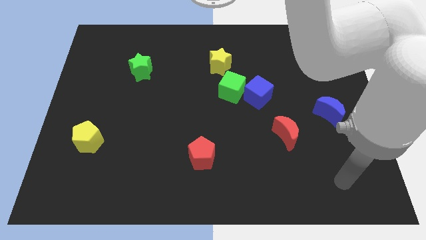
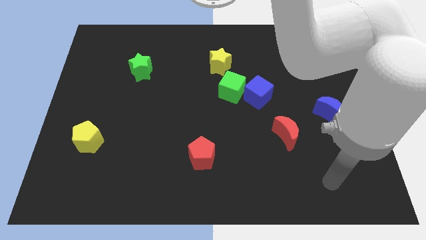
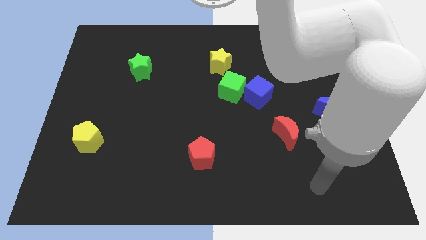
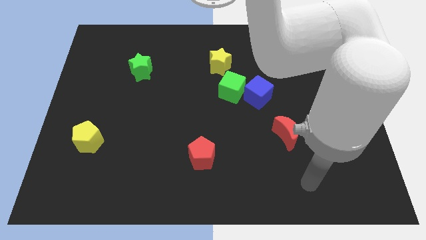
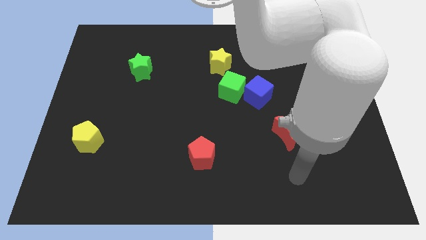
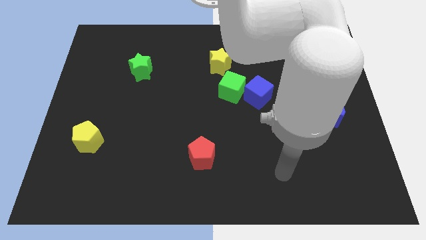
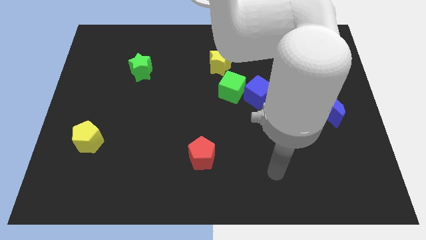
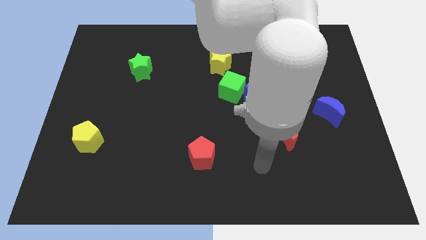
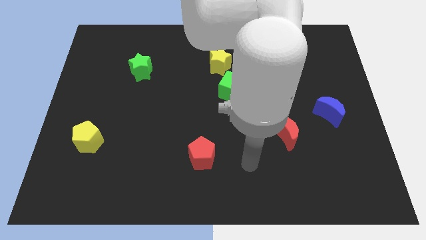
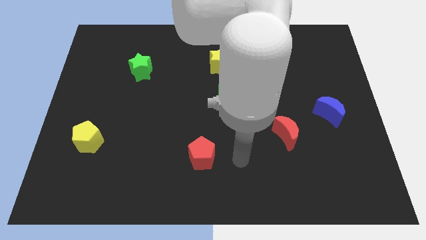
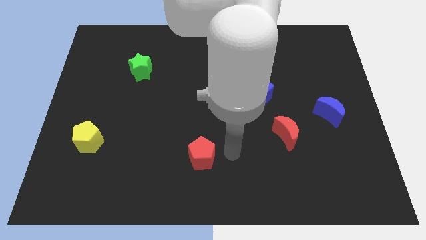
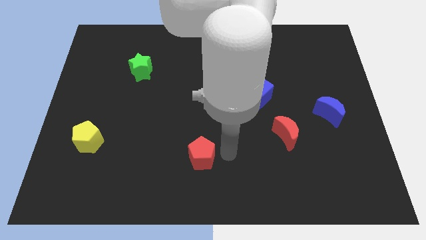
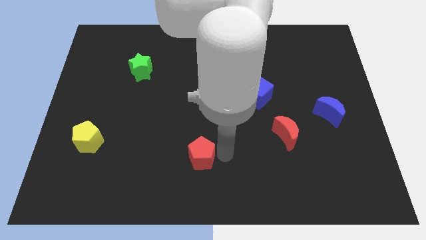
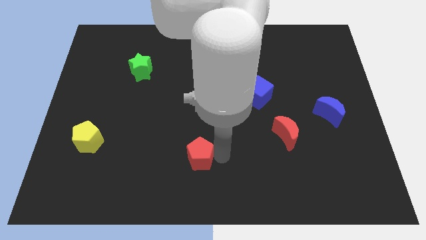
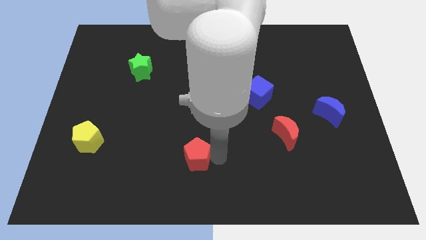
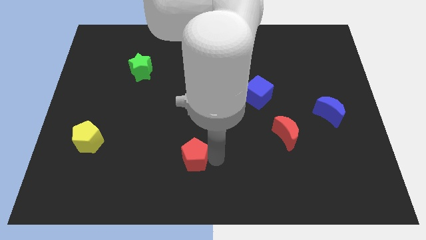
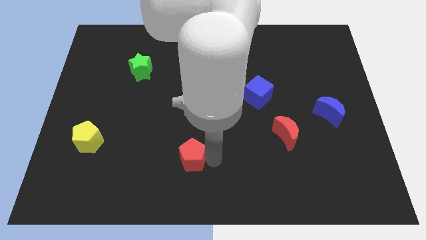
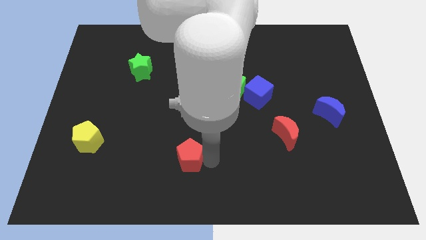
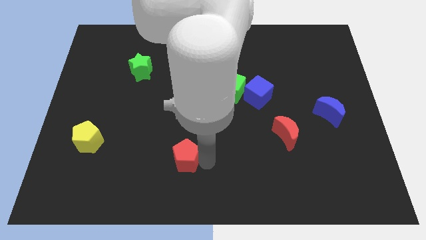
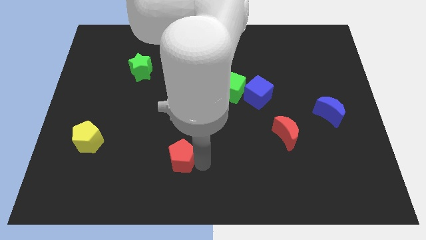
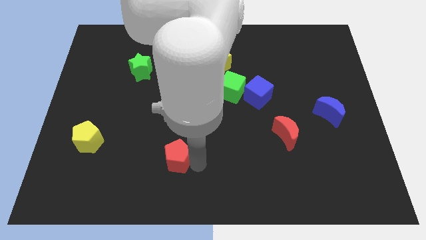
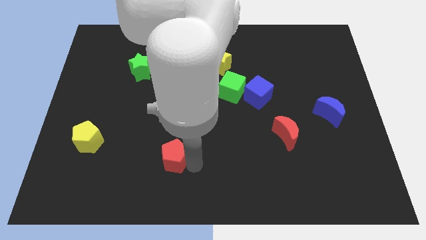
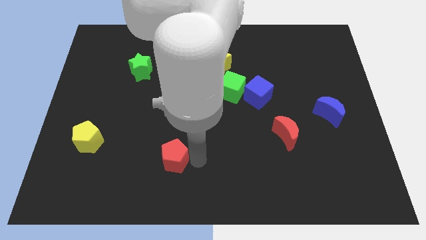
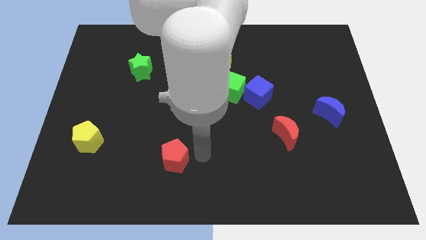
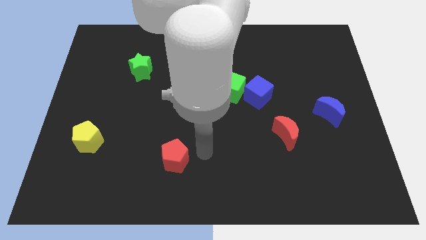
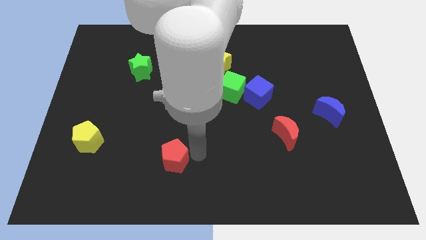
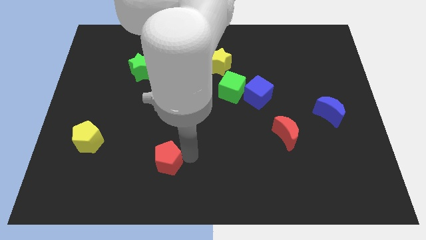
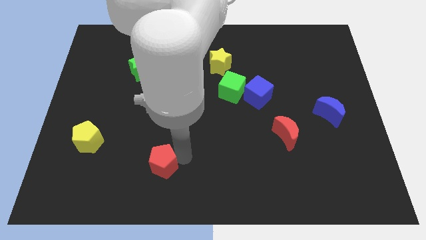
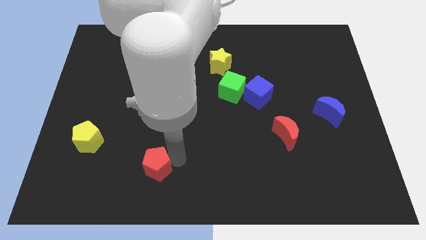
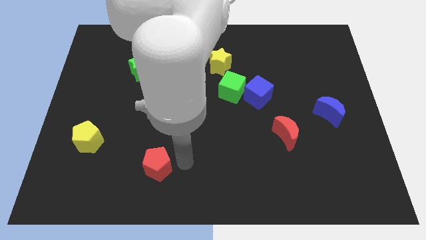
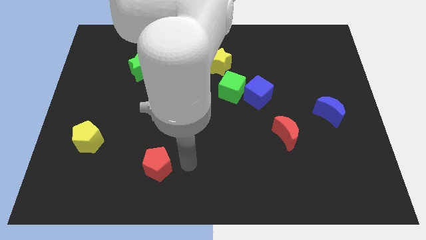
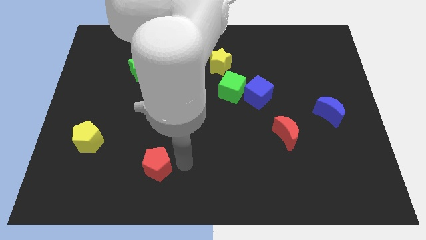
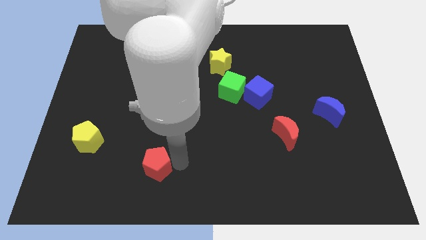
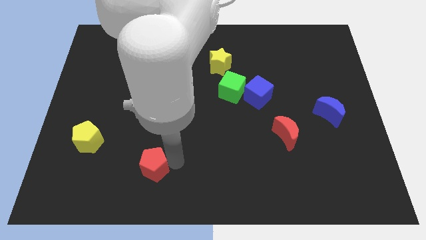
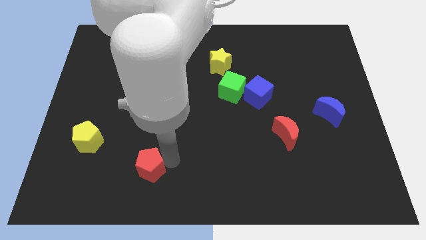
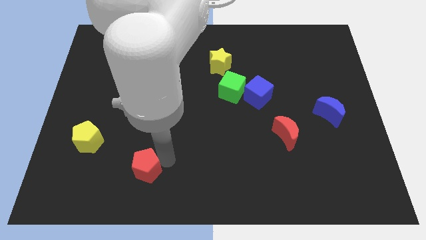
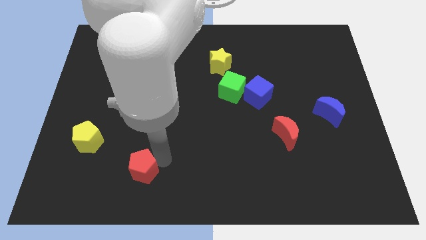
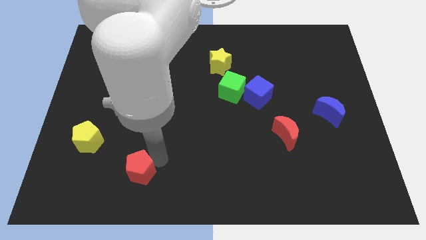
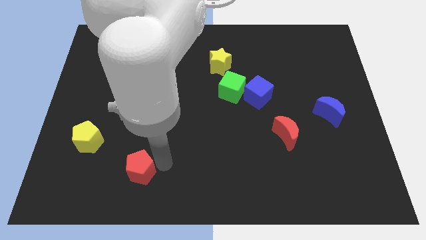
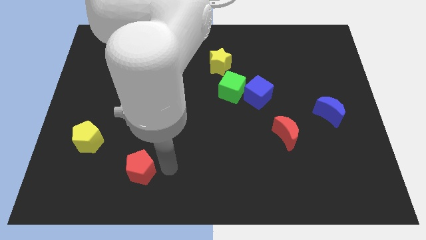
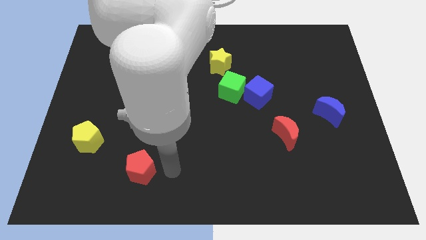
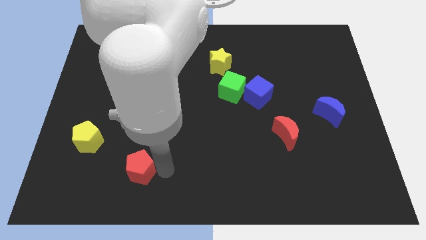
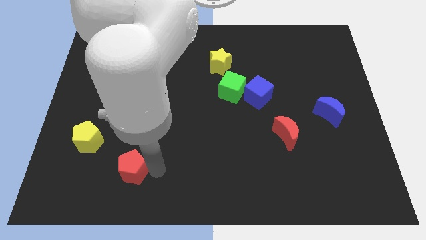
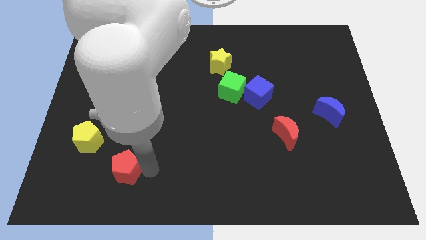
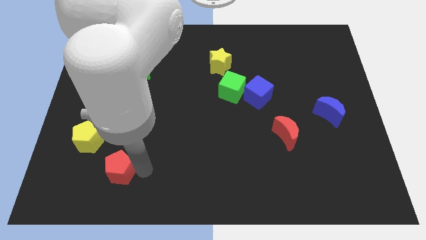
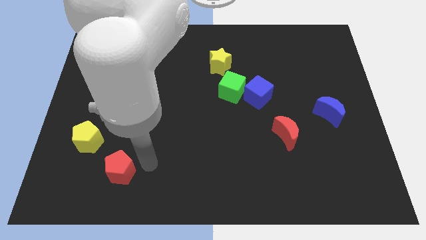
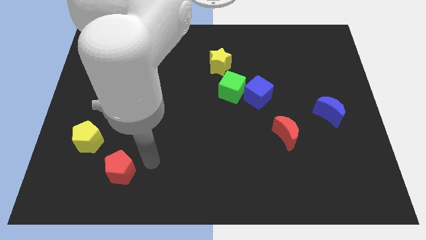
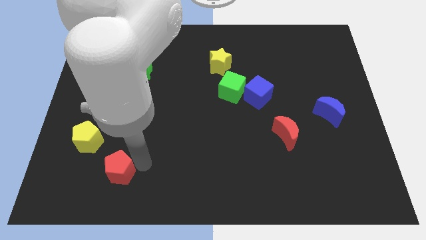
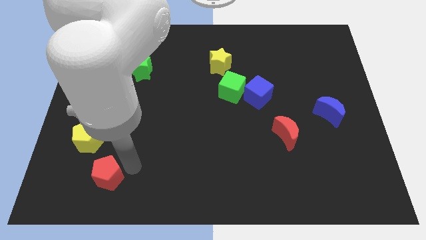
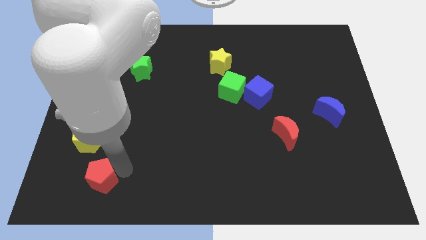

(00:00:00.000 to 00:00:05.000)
move the red pentagon below the yellow pentagon

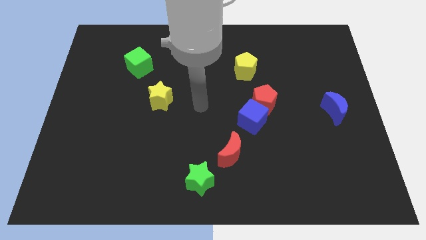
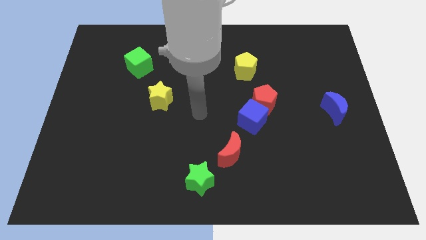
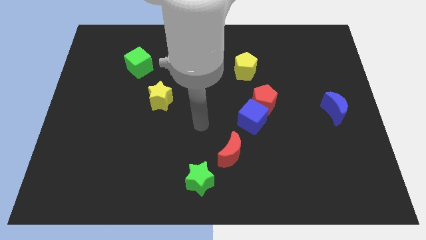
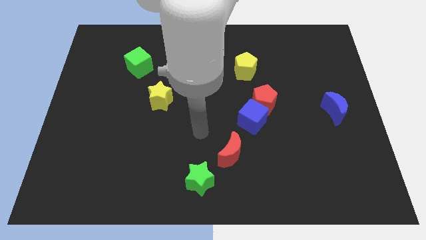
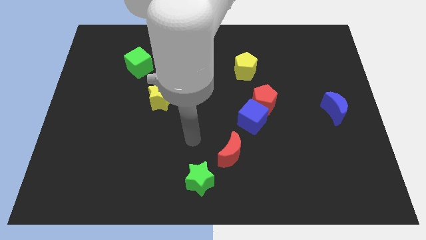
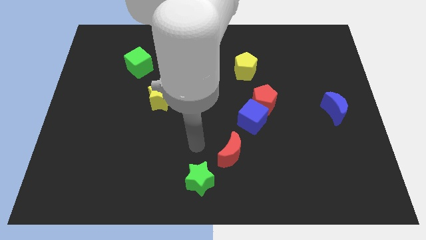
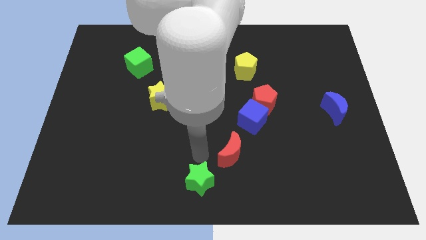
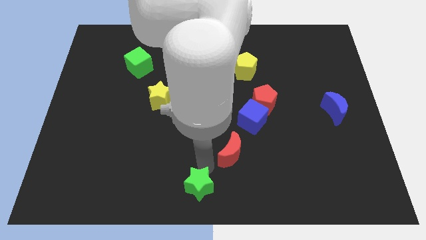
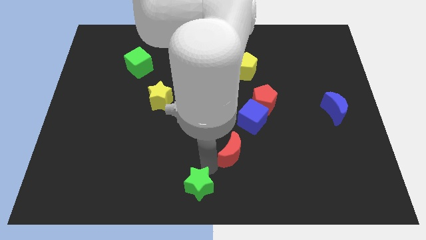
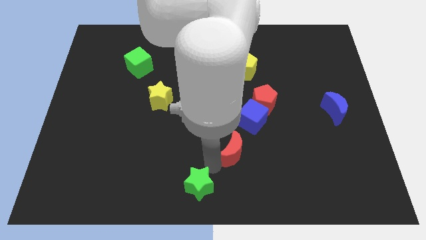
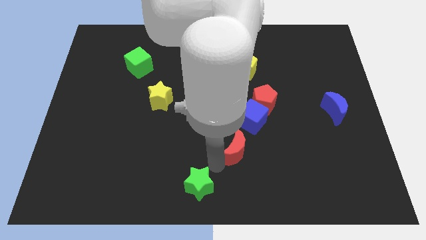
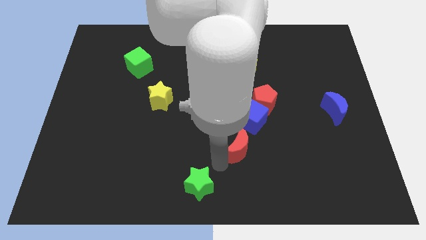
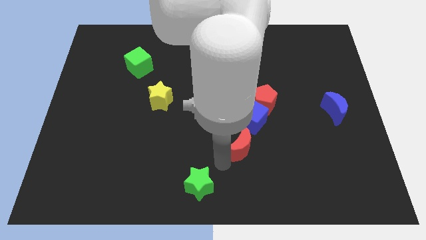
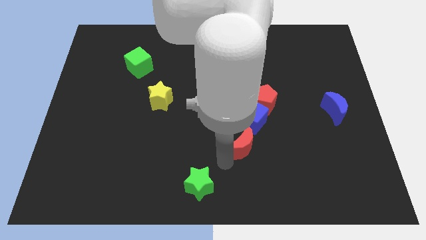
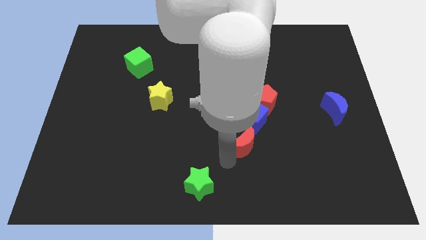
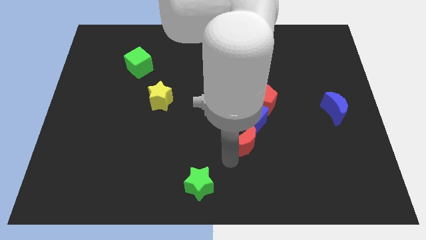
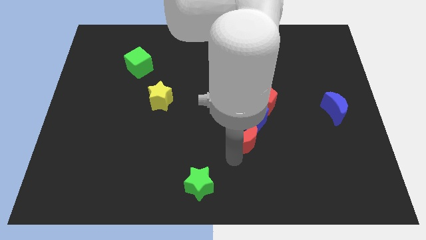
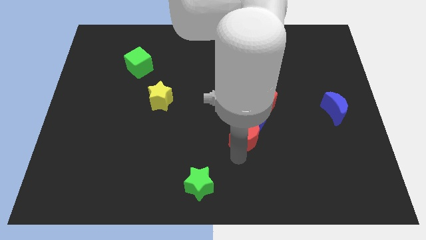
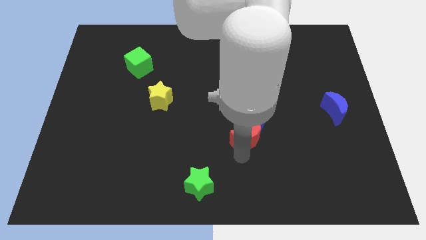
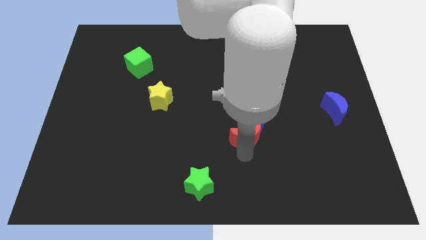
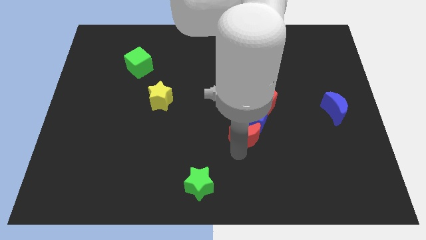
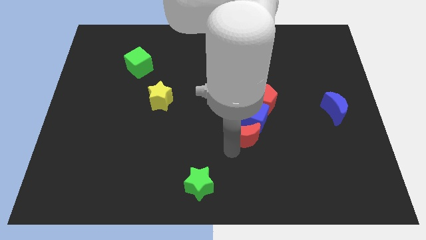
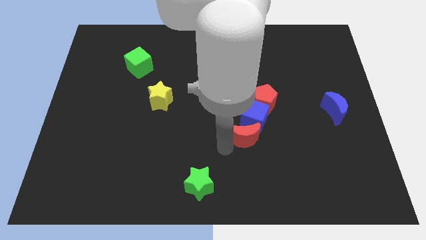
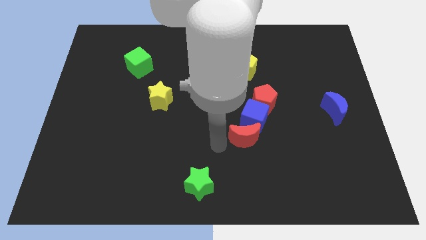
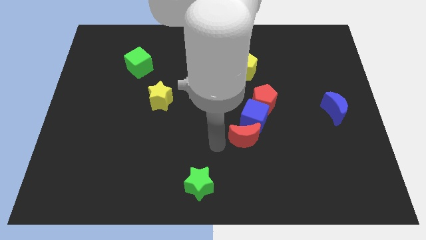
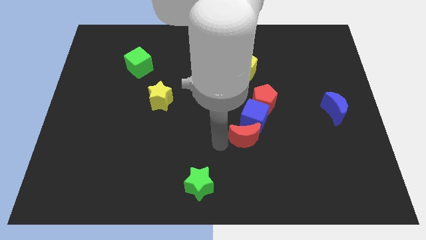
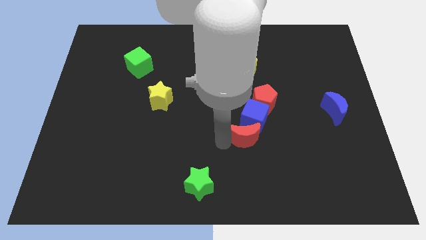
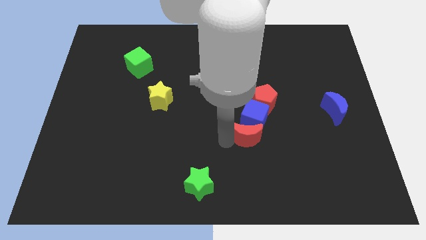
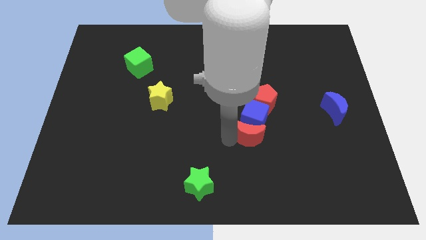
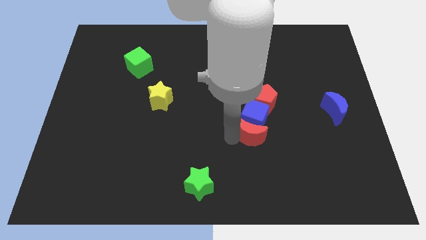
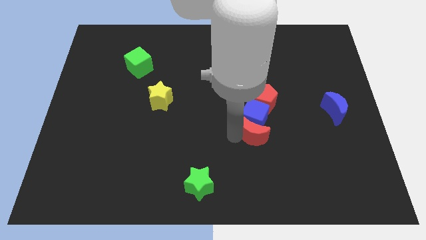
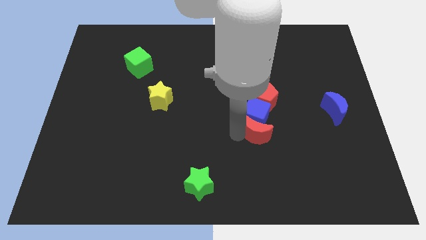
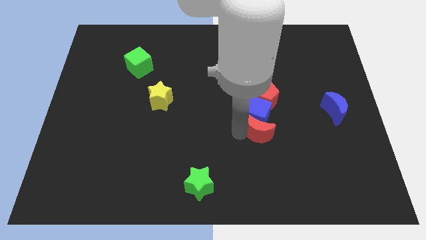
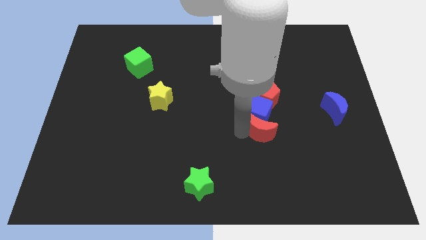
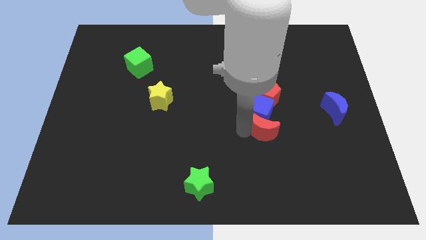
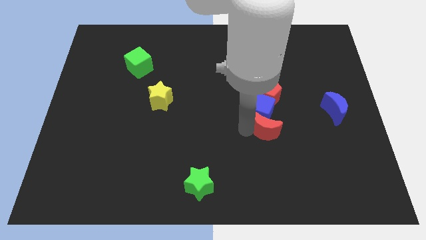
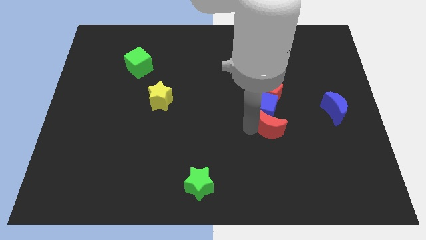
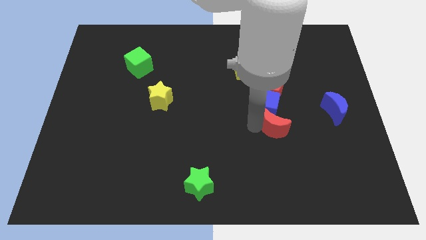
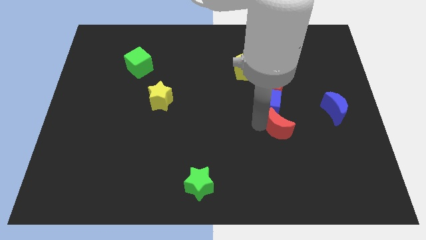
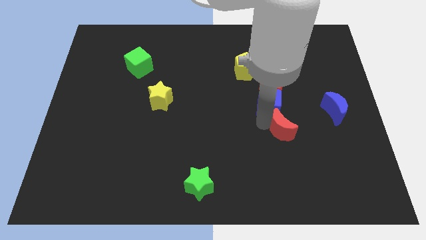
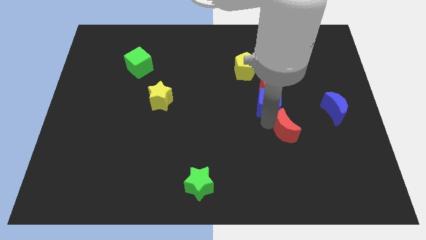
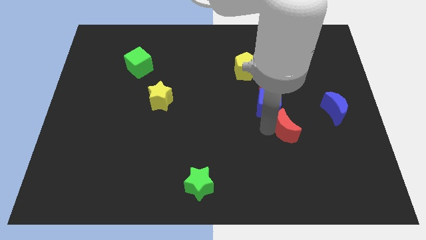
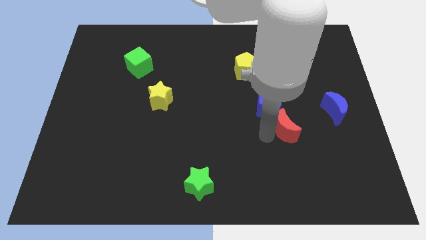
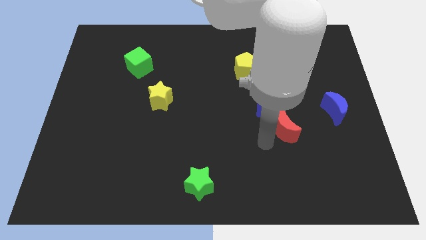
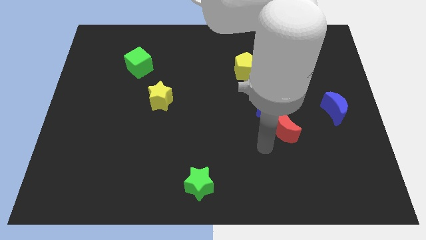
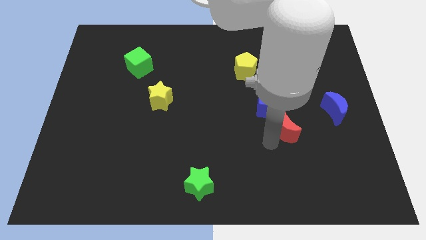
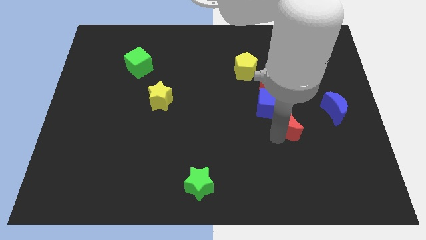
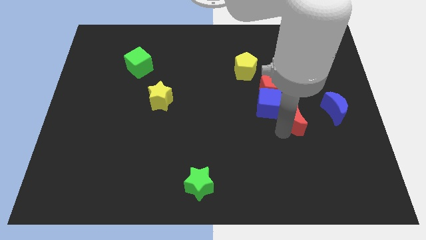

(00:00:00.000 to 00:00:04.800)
slide the red moon to the right side of the blue cube
